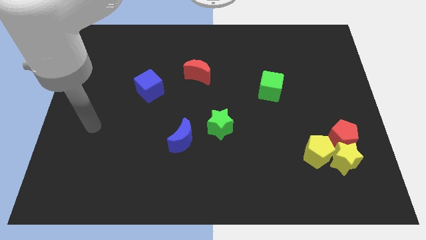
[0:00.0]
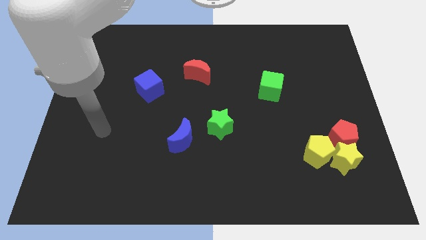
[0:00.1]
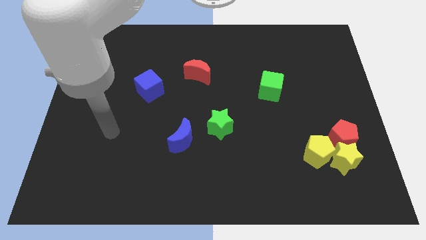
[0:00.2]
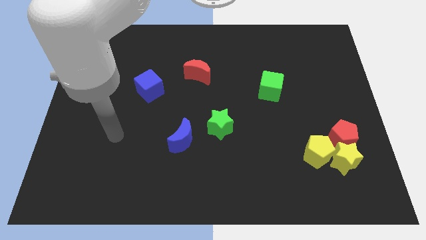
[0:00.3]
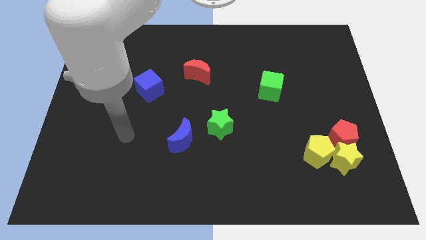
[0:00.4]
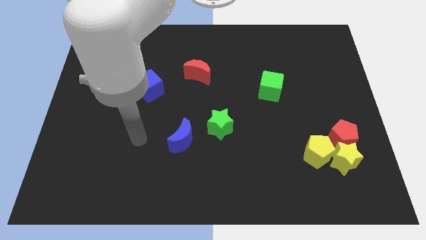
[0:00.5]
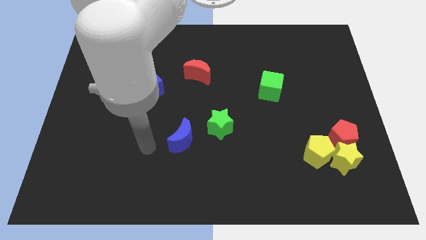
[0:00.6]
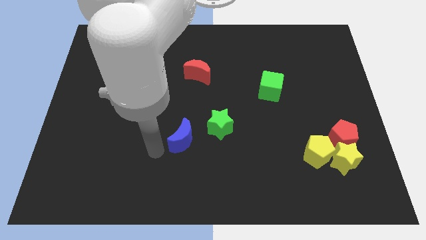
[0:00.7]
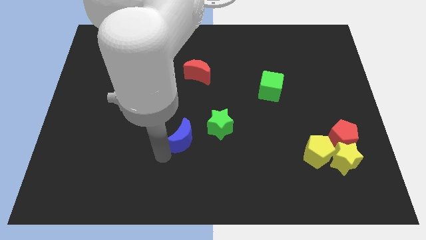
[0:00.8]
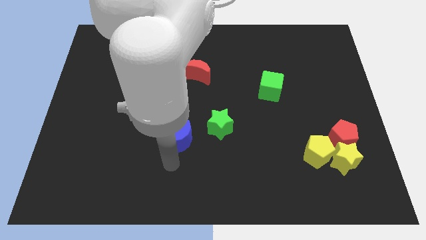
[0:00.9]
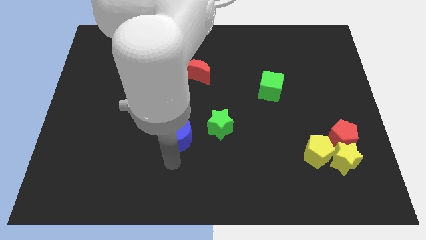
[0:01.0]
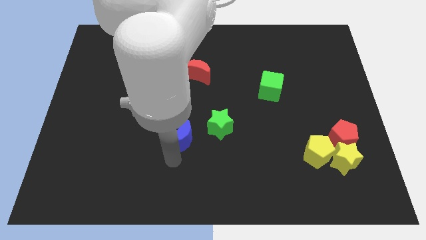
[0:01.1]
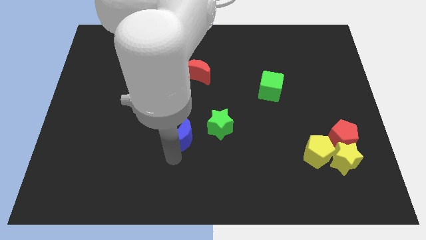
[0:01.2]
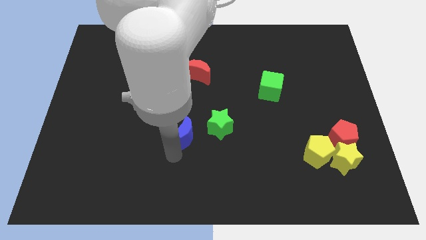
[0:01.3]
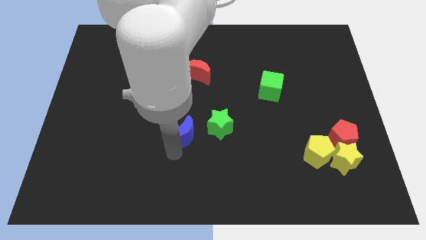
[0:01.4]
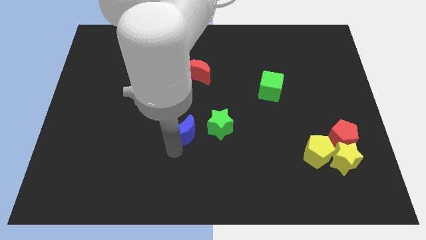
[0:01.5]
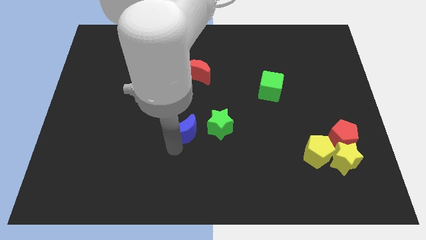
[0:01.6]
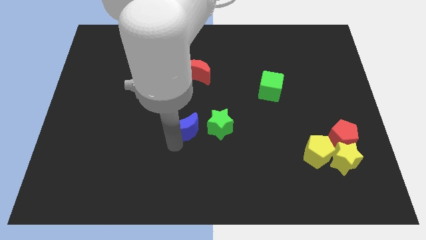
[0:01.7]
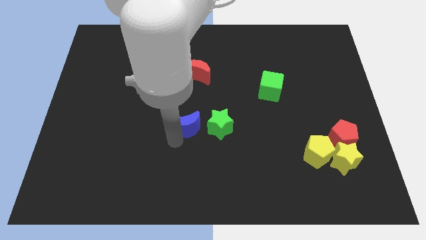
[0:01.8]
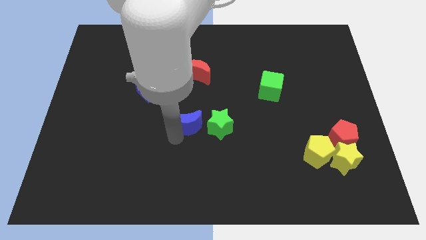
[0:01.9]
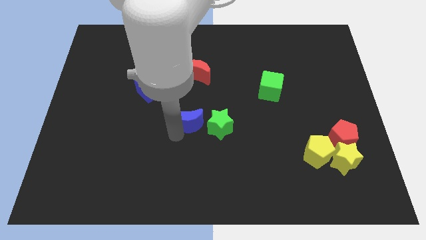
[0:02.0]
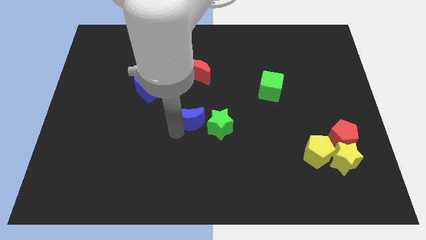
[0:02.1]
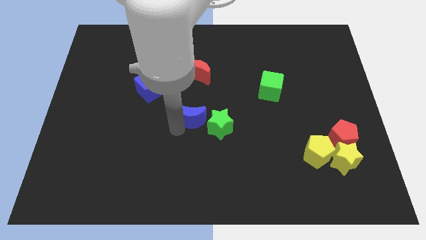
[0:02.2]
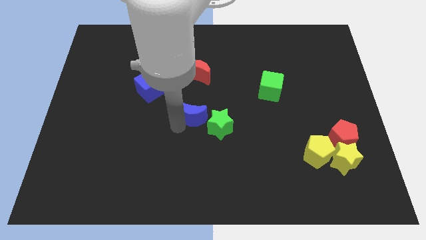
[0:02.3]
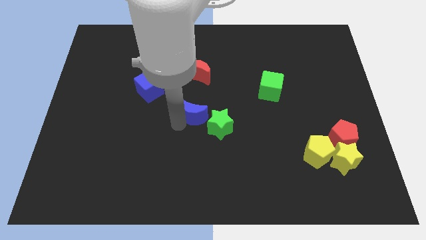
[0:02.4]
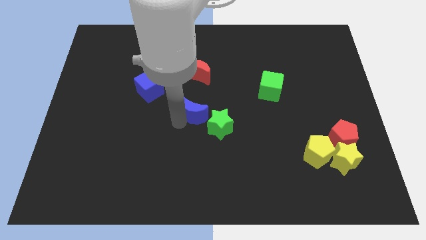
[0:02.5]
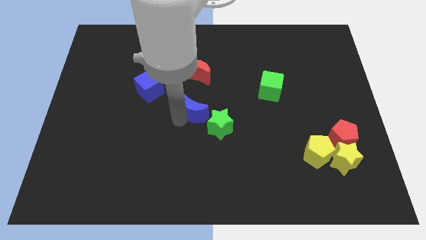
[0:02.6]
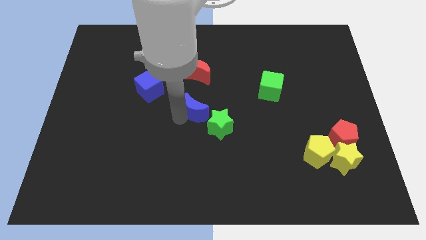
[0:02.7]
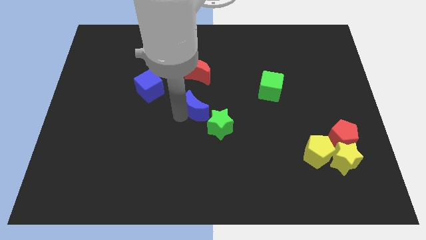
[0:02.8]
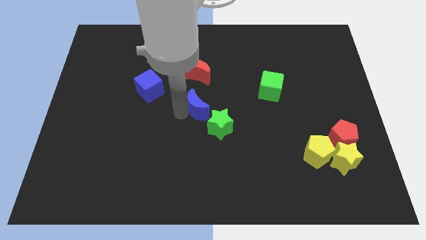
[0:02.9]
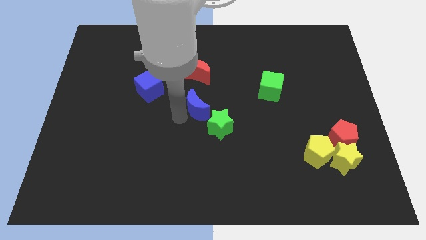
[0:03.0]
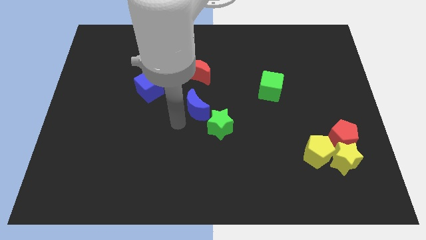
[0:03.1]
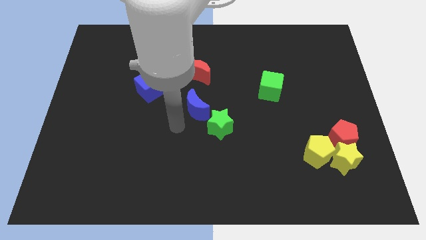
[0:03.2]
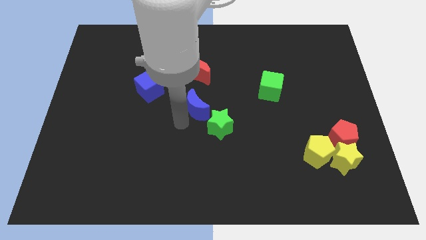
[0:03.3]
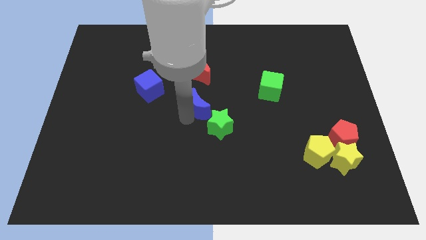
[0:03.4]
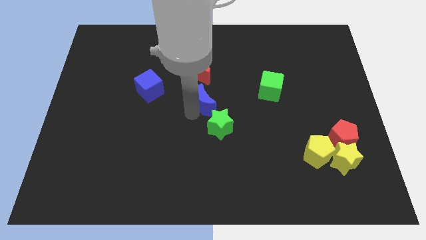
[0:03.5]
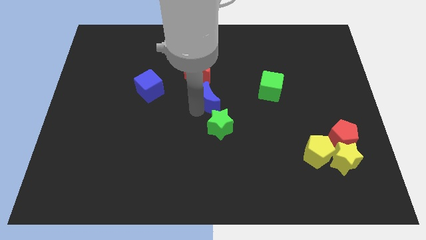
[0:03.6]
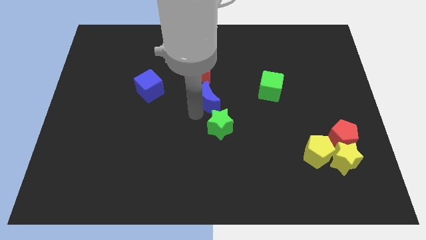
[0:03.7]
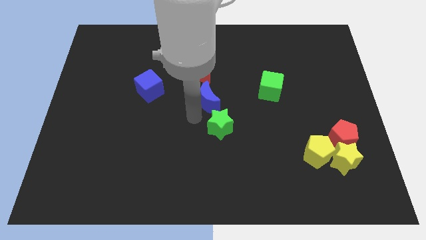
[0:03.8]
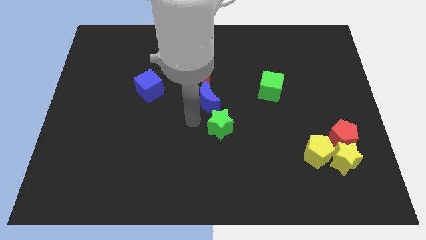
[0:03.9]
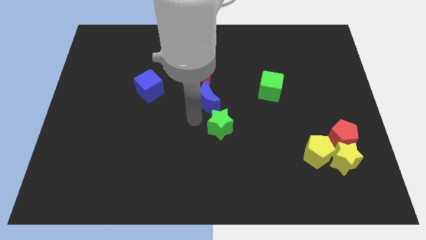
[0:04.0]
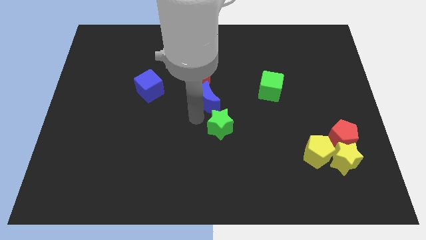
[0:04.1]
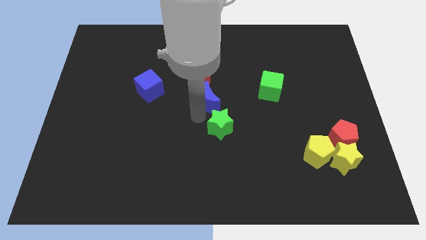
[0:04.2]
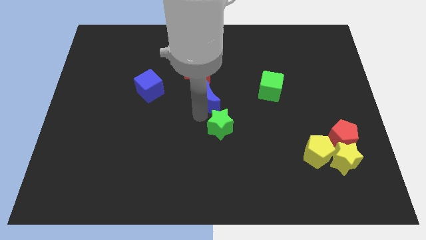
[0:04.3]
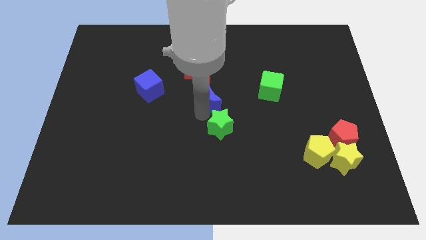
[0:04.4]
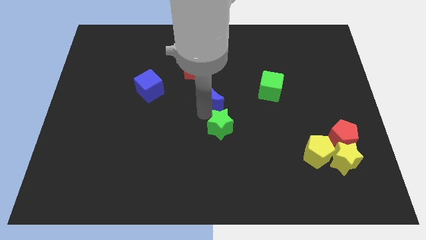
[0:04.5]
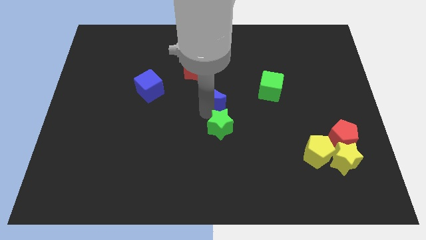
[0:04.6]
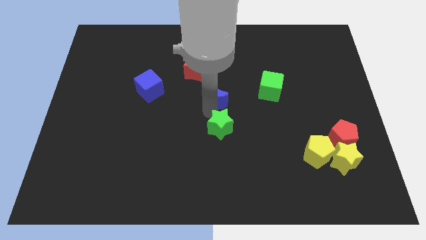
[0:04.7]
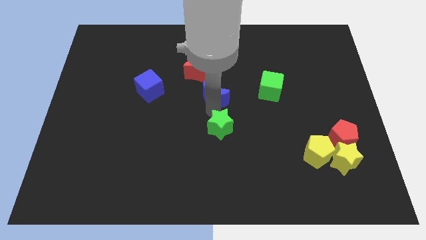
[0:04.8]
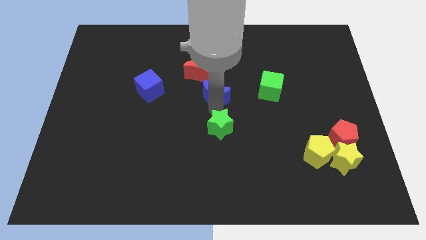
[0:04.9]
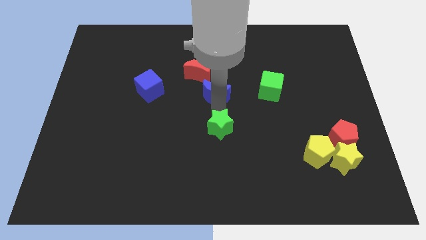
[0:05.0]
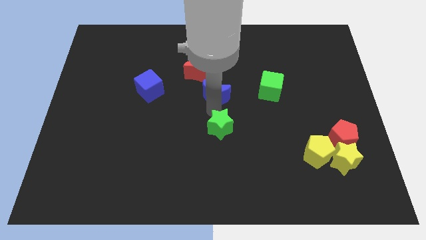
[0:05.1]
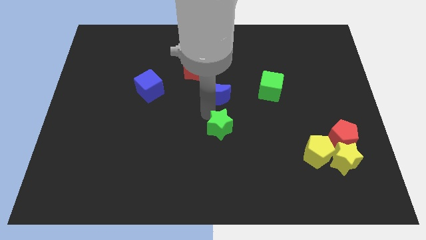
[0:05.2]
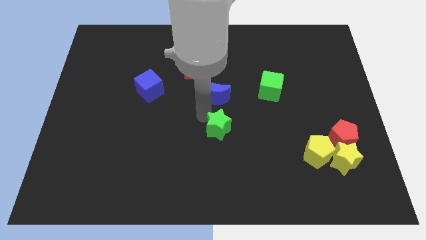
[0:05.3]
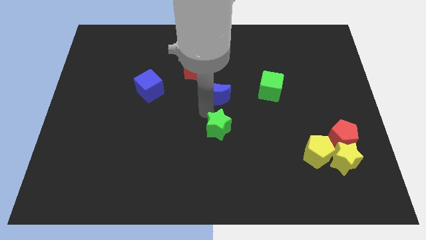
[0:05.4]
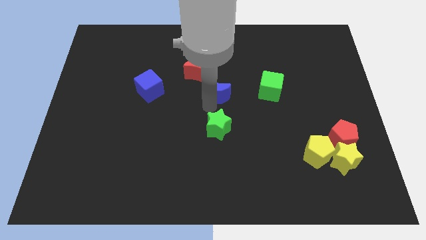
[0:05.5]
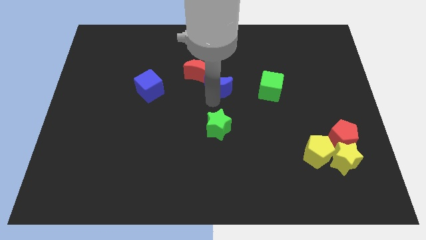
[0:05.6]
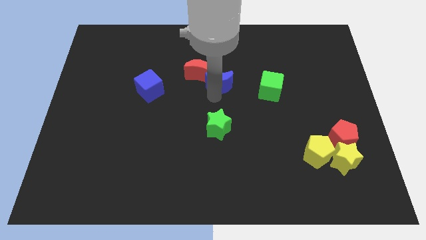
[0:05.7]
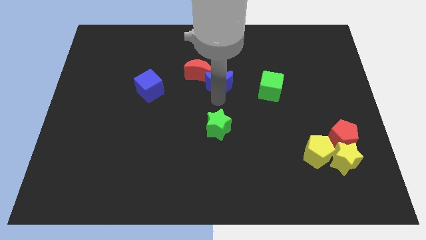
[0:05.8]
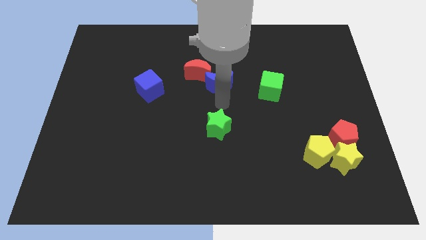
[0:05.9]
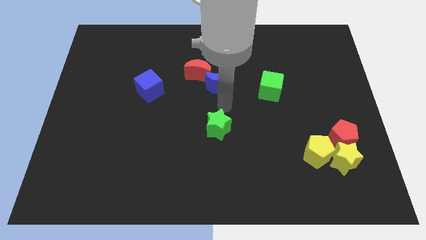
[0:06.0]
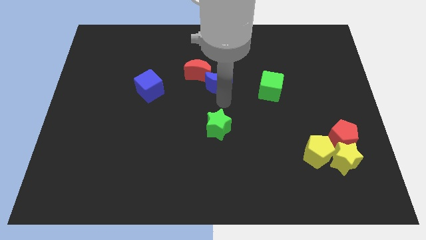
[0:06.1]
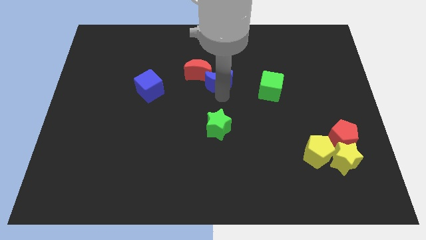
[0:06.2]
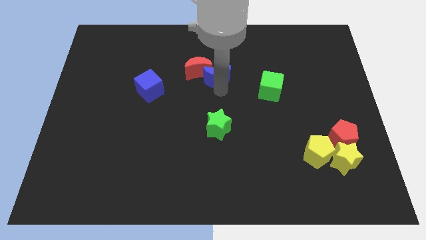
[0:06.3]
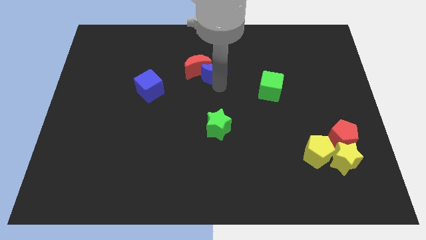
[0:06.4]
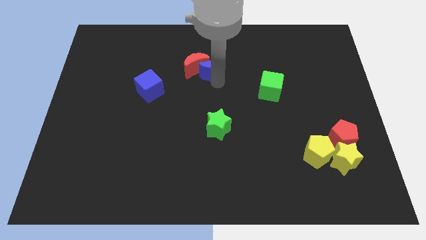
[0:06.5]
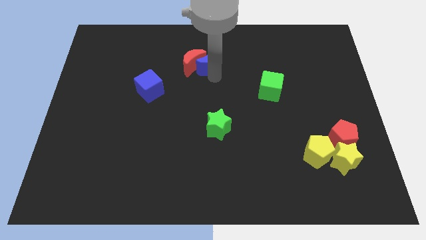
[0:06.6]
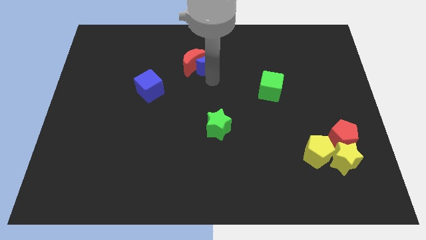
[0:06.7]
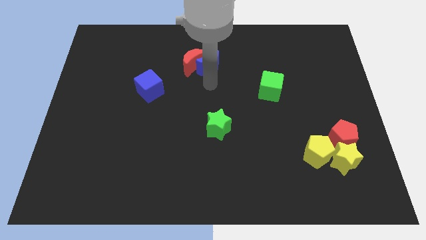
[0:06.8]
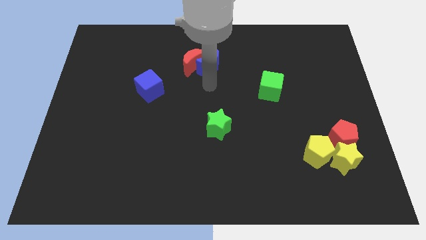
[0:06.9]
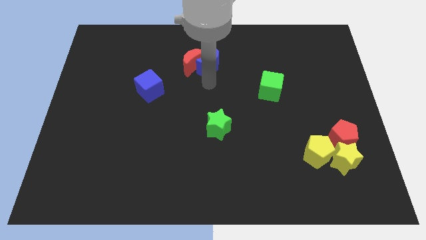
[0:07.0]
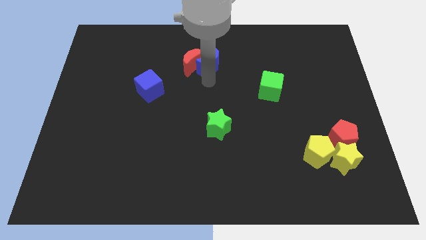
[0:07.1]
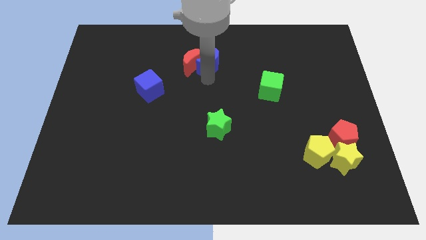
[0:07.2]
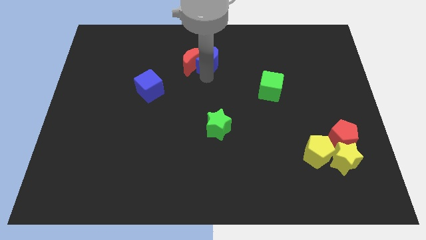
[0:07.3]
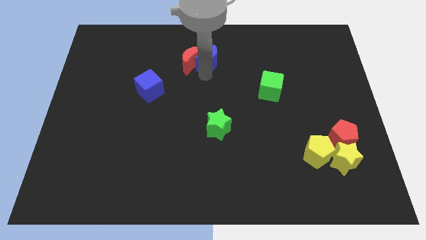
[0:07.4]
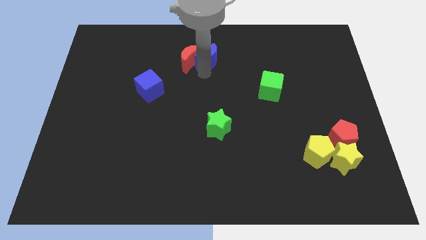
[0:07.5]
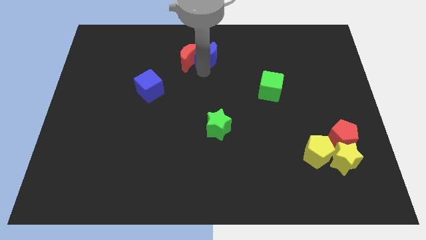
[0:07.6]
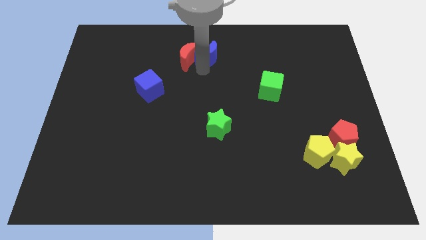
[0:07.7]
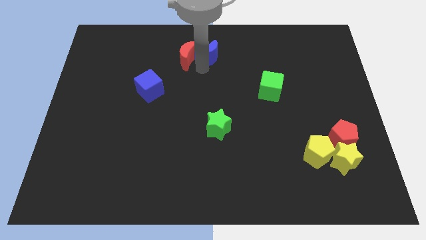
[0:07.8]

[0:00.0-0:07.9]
put the blue moon to the towards your base
